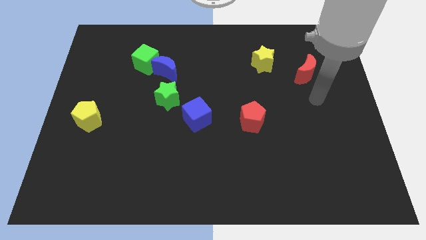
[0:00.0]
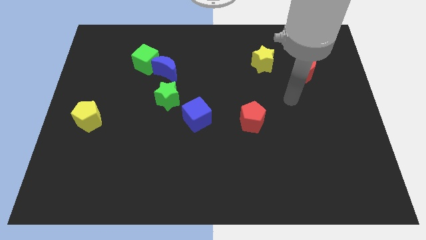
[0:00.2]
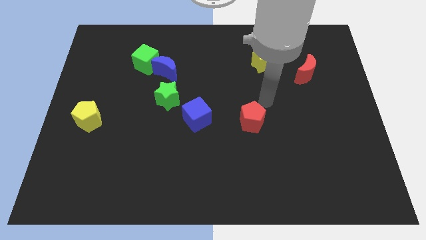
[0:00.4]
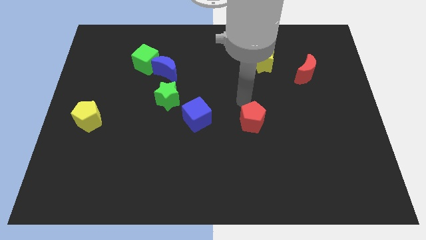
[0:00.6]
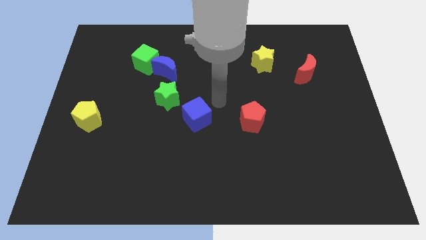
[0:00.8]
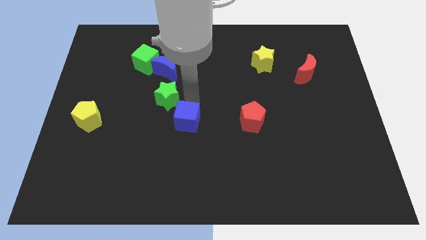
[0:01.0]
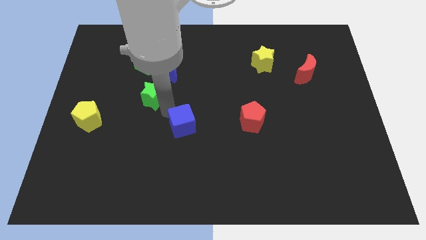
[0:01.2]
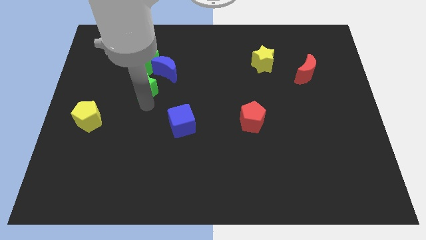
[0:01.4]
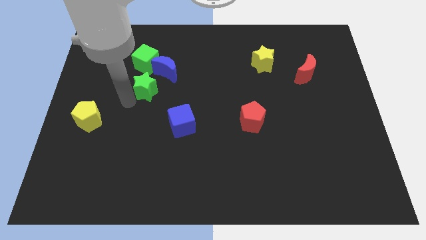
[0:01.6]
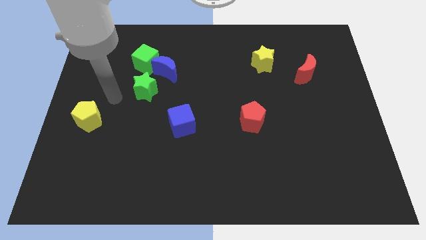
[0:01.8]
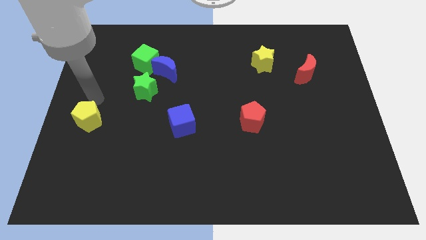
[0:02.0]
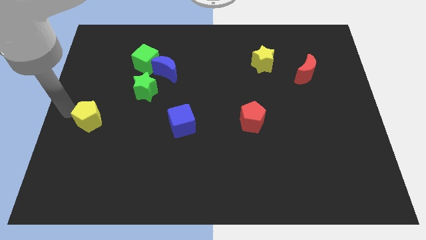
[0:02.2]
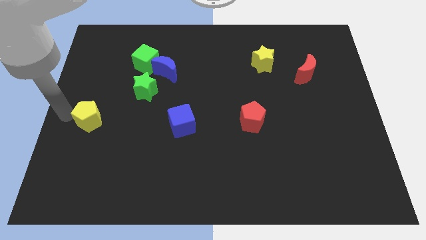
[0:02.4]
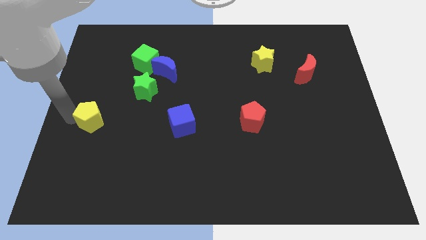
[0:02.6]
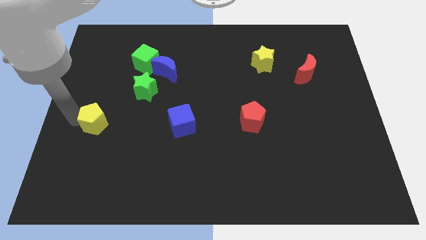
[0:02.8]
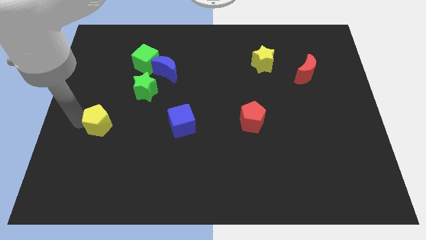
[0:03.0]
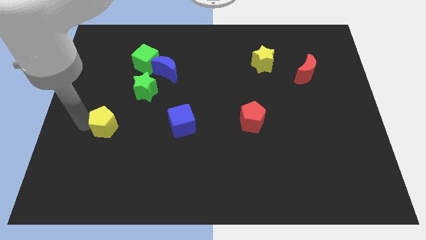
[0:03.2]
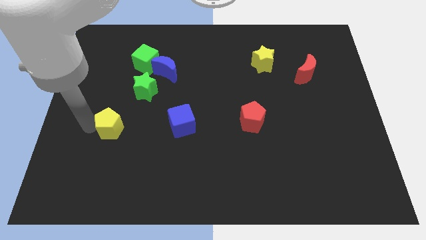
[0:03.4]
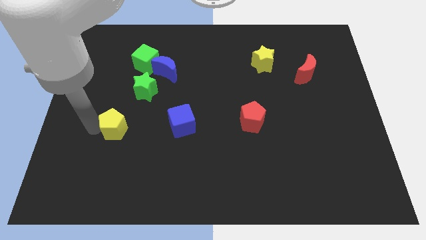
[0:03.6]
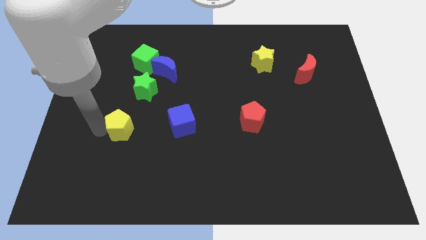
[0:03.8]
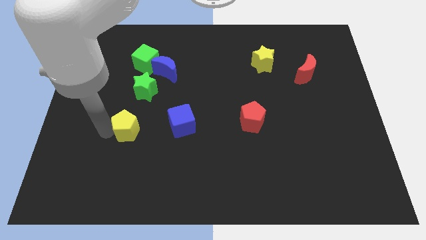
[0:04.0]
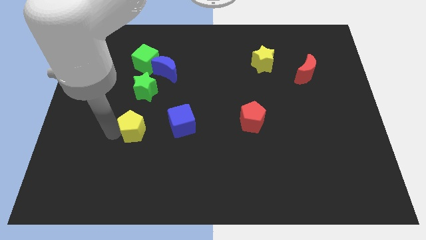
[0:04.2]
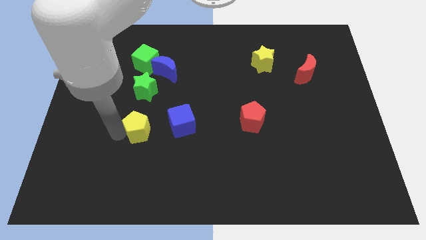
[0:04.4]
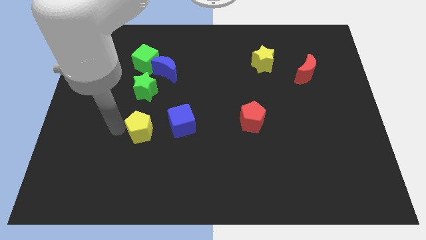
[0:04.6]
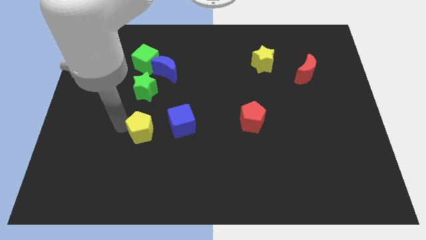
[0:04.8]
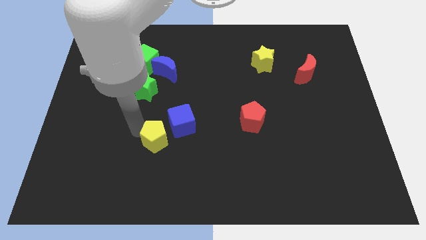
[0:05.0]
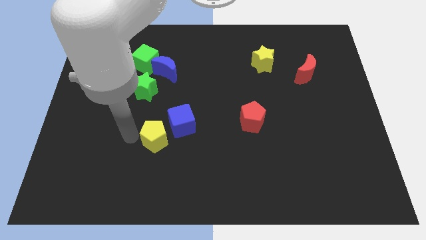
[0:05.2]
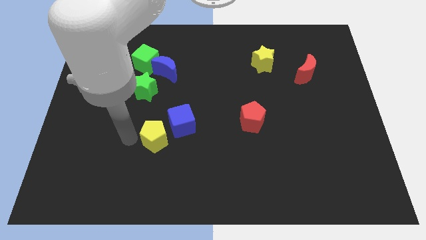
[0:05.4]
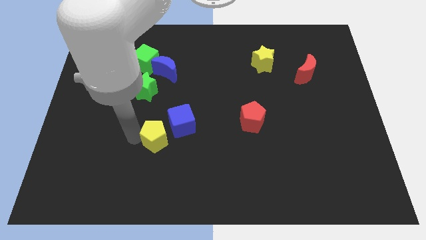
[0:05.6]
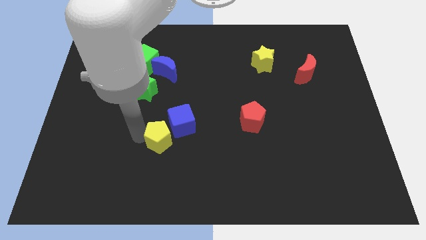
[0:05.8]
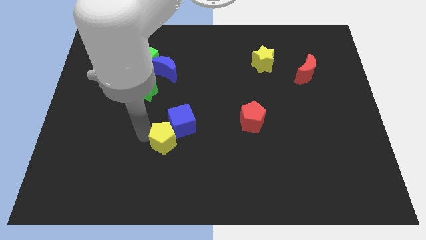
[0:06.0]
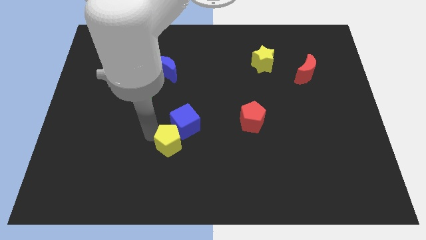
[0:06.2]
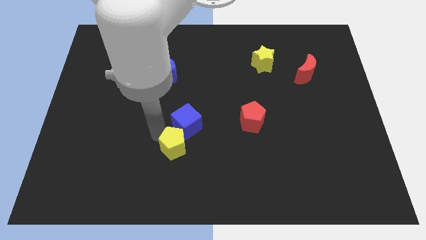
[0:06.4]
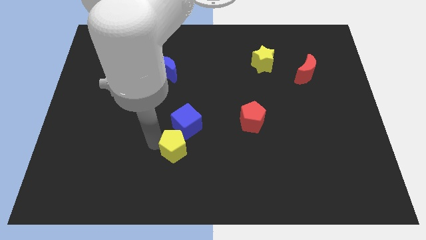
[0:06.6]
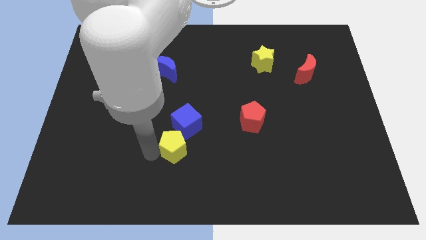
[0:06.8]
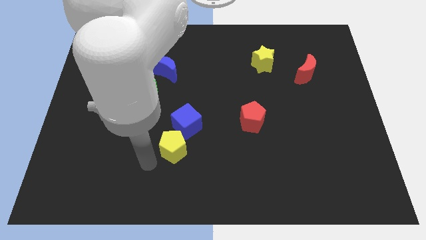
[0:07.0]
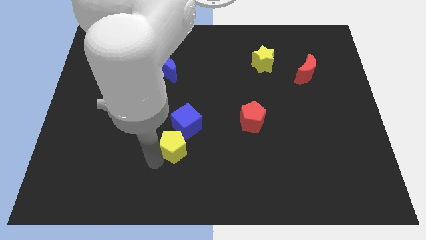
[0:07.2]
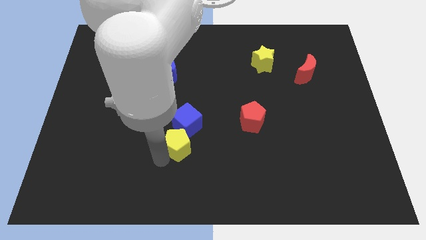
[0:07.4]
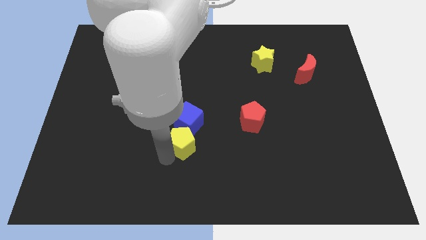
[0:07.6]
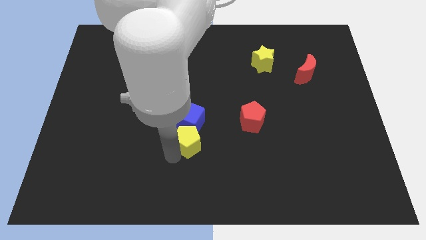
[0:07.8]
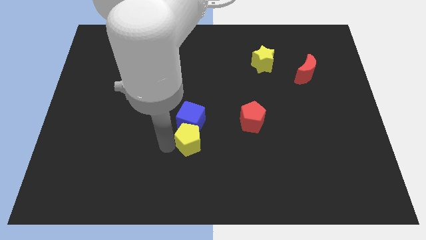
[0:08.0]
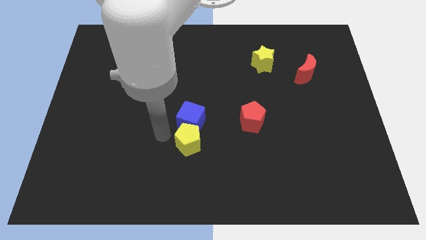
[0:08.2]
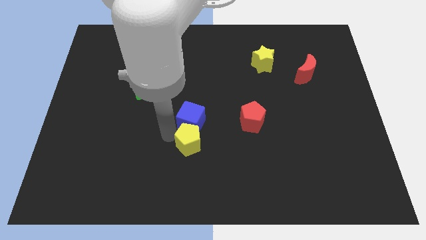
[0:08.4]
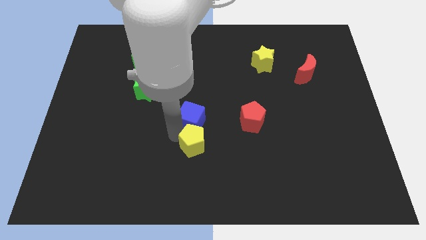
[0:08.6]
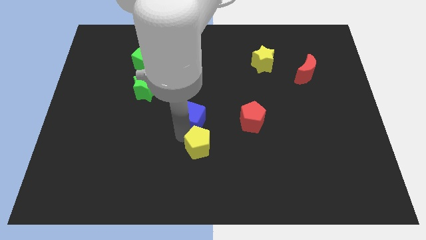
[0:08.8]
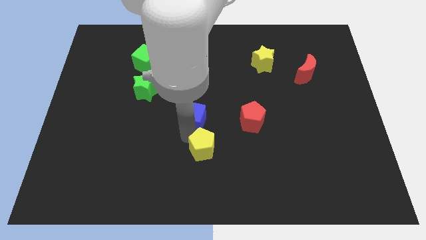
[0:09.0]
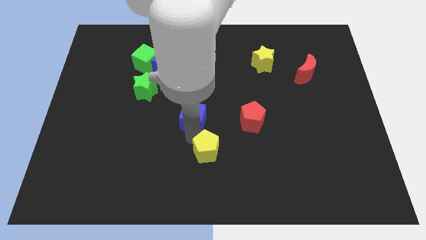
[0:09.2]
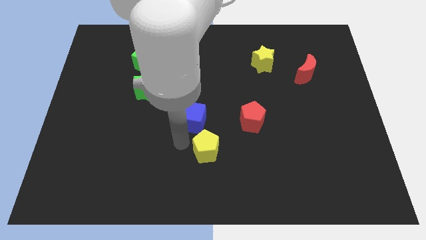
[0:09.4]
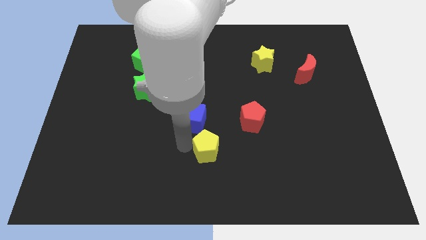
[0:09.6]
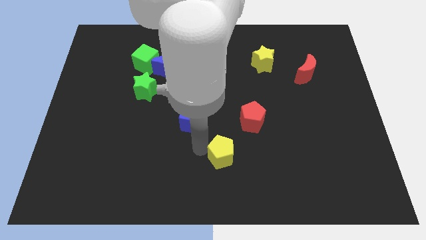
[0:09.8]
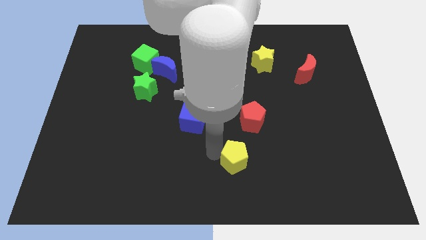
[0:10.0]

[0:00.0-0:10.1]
put the yellow pentagon below the red pentagon

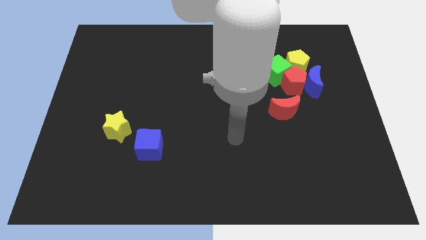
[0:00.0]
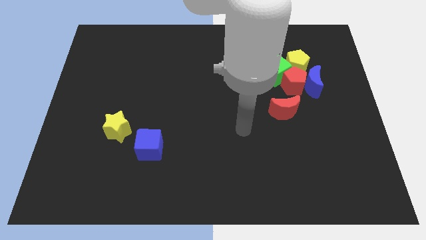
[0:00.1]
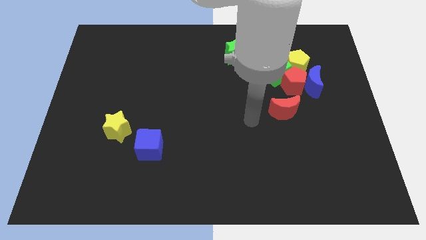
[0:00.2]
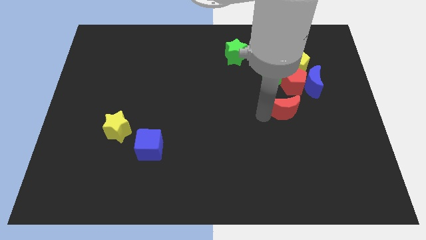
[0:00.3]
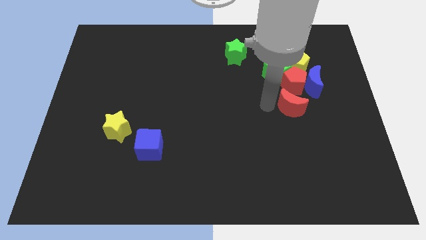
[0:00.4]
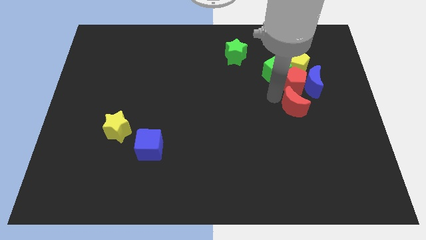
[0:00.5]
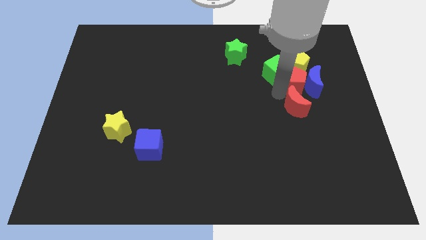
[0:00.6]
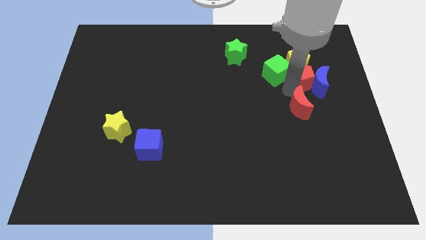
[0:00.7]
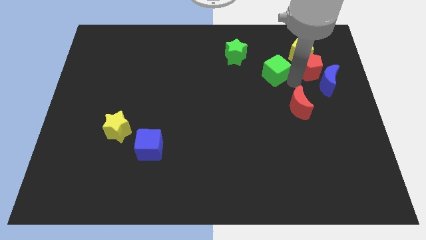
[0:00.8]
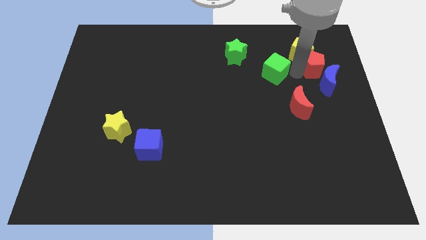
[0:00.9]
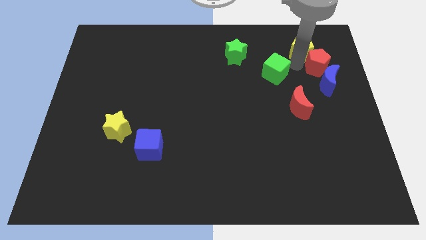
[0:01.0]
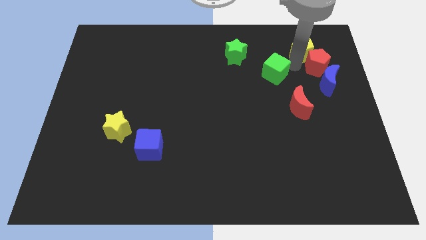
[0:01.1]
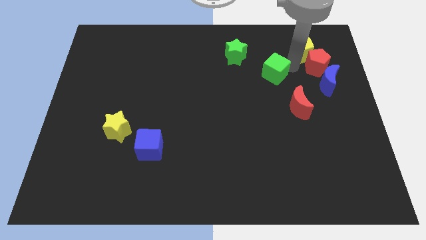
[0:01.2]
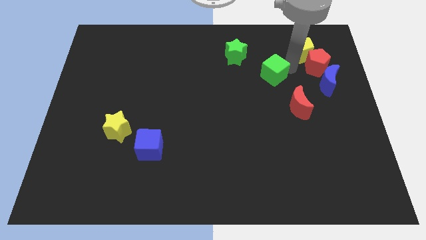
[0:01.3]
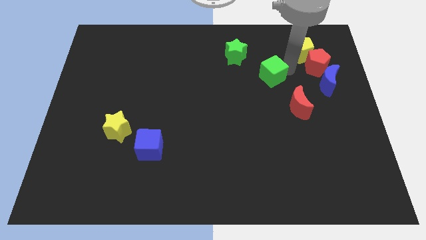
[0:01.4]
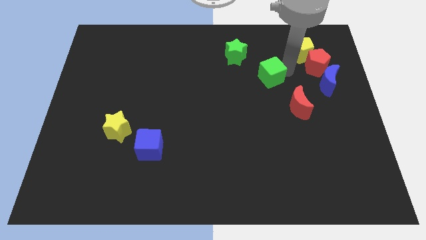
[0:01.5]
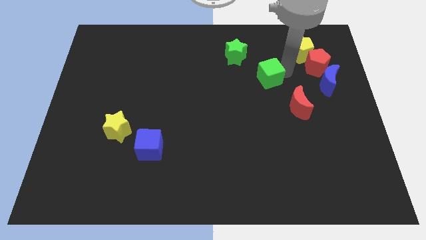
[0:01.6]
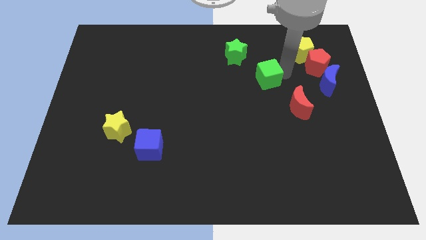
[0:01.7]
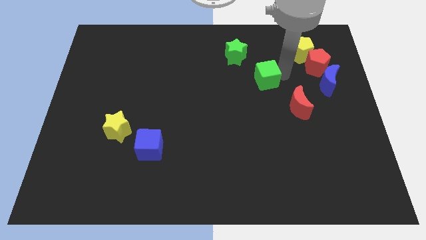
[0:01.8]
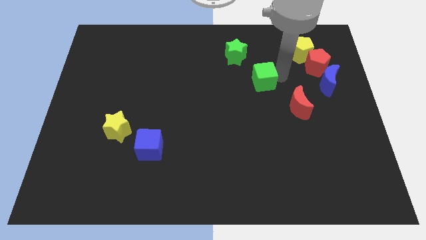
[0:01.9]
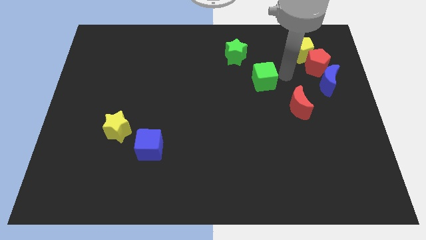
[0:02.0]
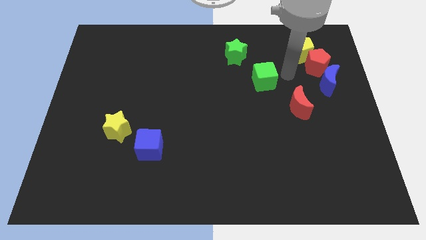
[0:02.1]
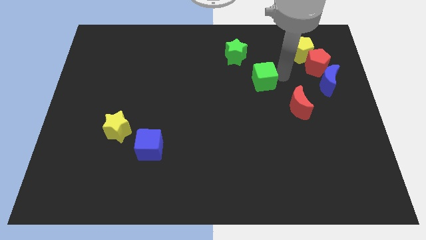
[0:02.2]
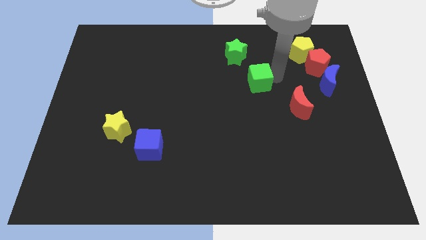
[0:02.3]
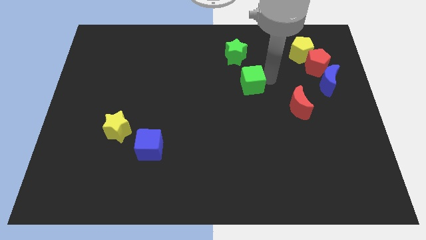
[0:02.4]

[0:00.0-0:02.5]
slide the green cube to the bottom of the green star

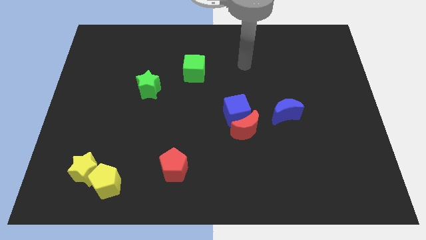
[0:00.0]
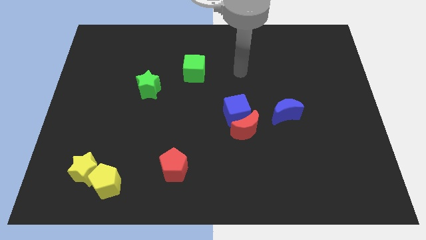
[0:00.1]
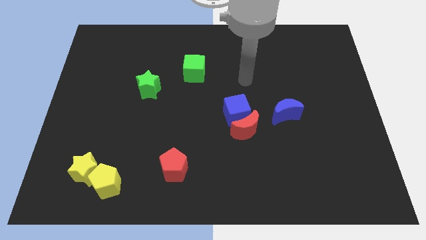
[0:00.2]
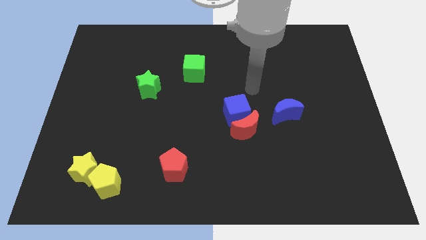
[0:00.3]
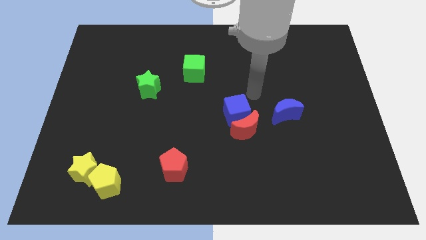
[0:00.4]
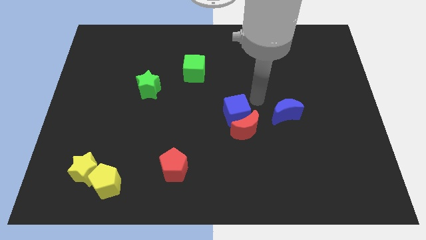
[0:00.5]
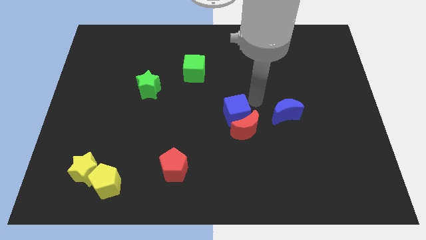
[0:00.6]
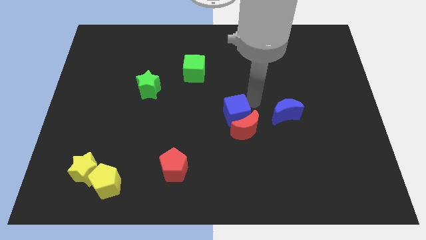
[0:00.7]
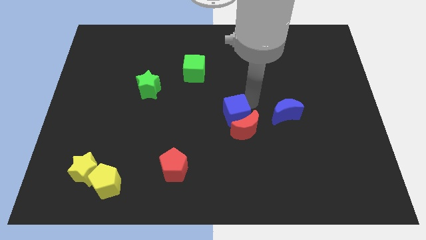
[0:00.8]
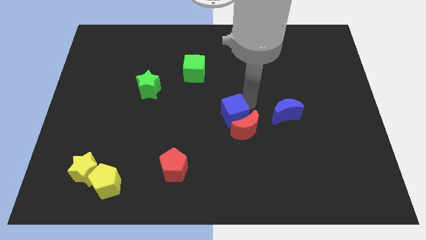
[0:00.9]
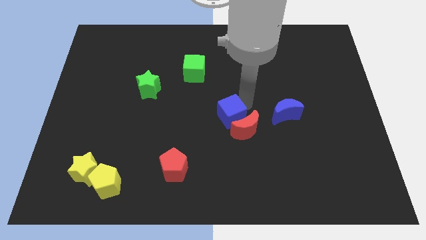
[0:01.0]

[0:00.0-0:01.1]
put the blue cube left of the red moon

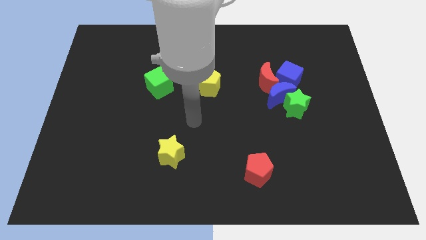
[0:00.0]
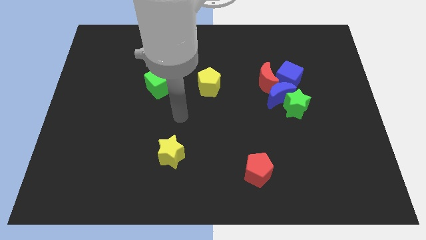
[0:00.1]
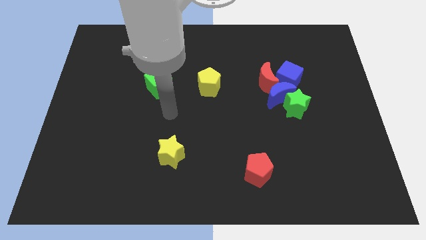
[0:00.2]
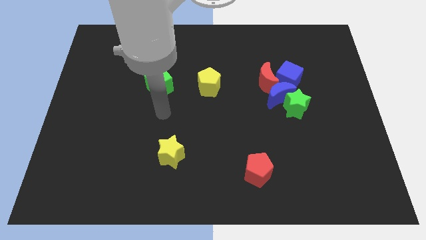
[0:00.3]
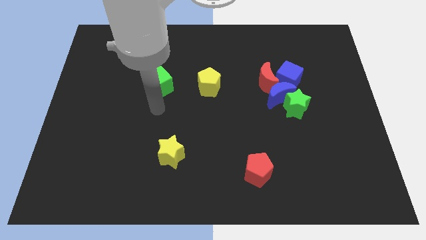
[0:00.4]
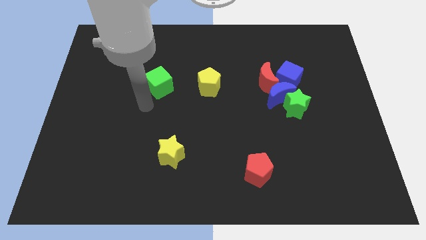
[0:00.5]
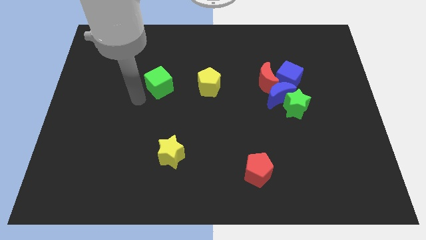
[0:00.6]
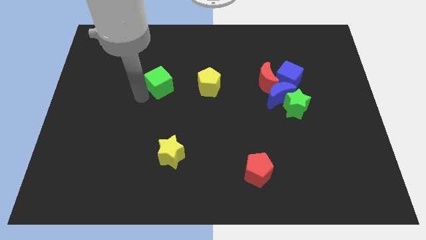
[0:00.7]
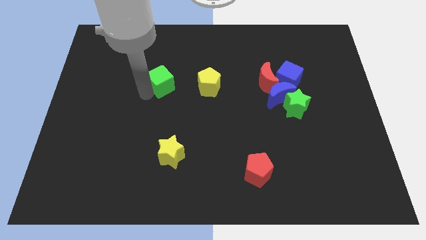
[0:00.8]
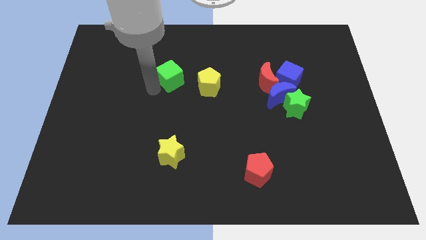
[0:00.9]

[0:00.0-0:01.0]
put the green cube to the top left of the yellow pentagon
